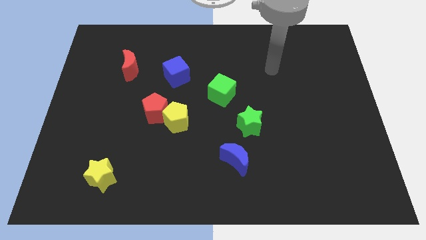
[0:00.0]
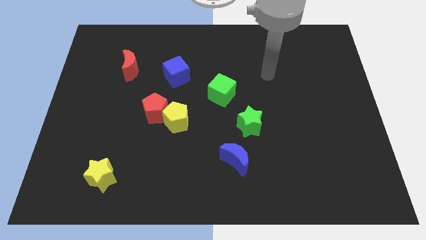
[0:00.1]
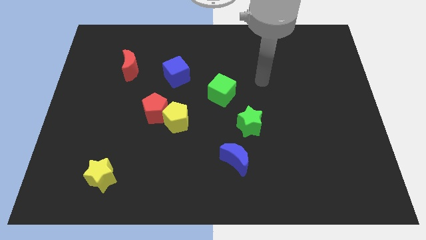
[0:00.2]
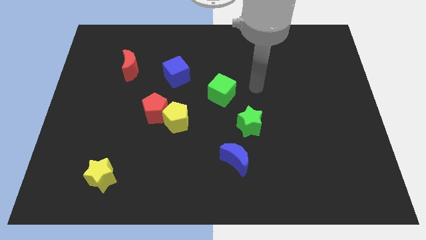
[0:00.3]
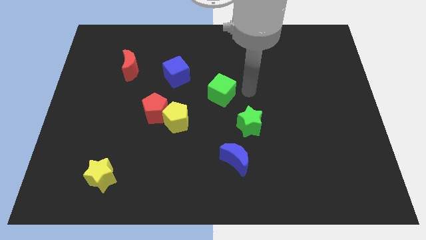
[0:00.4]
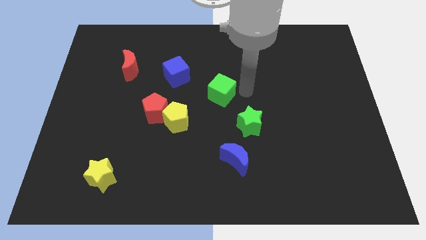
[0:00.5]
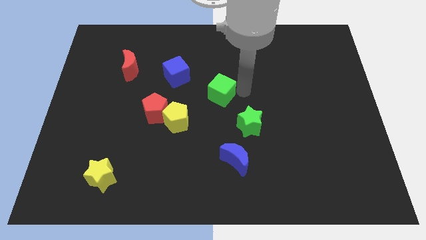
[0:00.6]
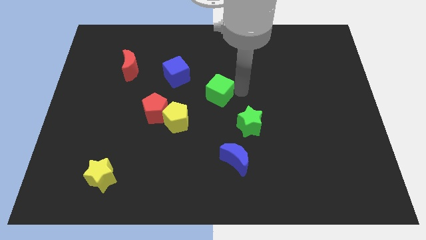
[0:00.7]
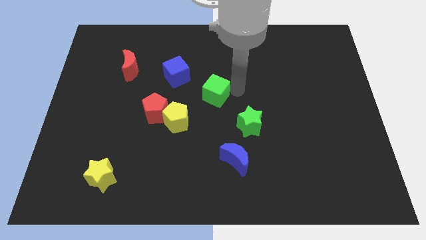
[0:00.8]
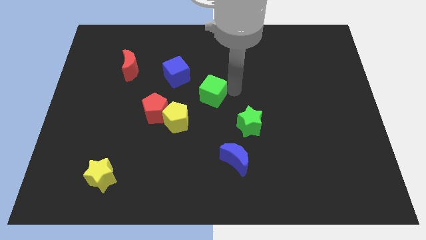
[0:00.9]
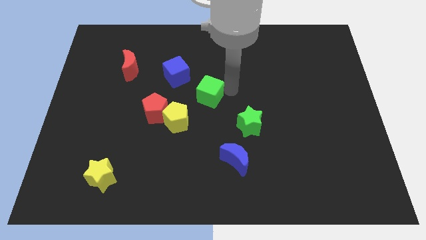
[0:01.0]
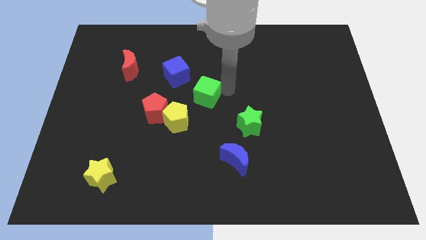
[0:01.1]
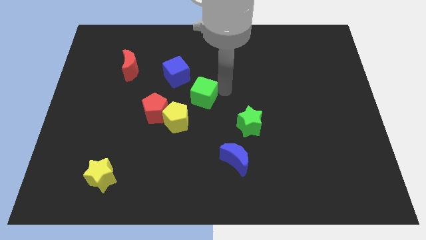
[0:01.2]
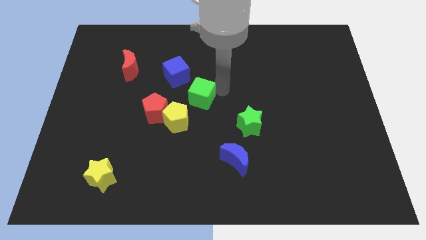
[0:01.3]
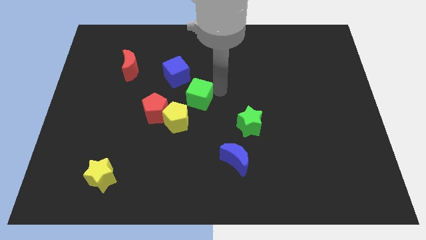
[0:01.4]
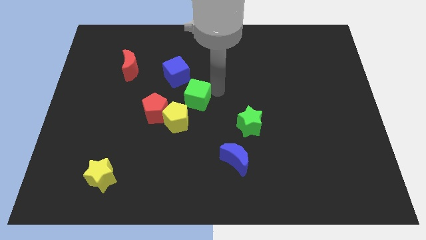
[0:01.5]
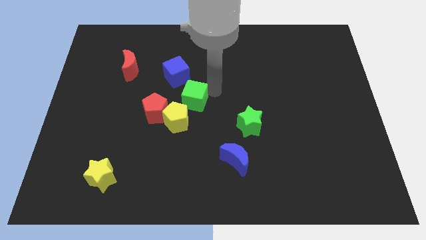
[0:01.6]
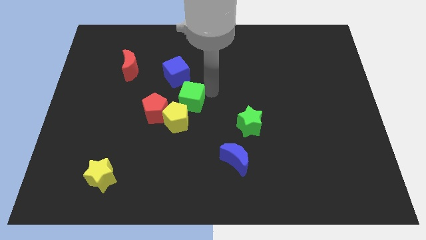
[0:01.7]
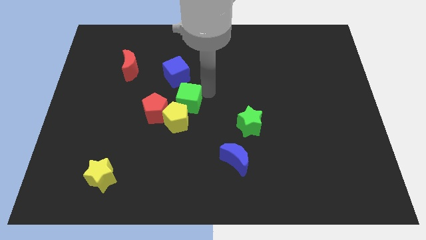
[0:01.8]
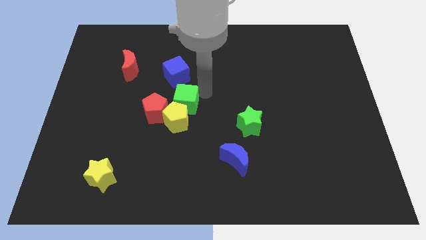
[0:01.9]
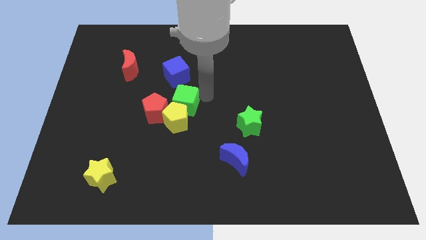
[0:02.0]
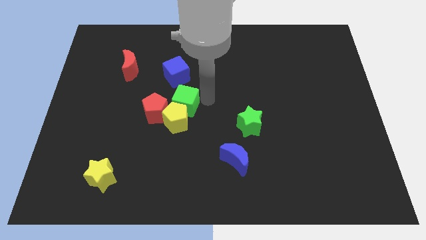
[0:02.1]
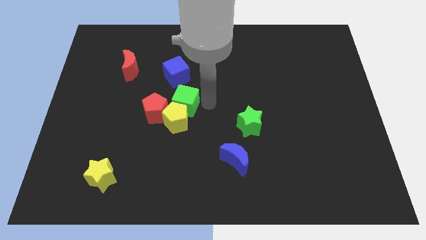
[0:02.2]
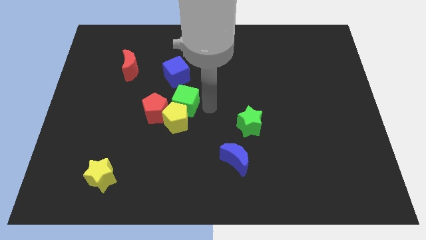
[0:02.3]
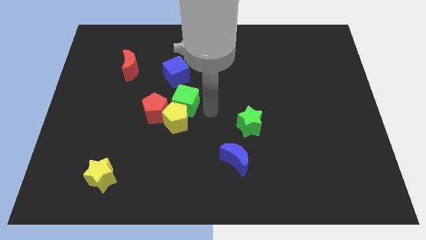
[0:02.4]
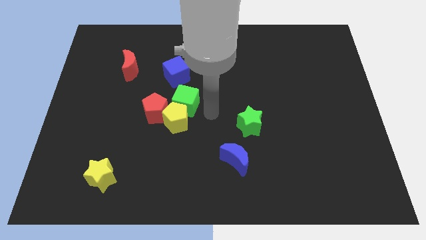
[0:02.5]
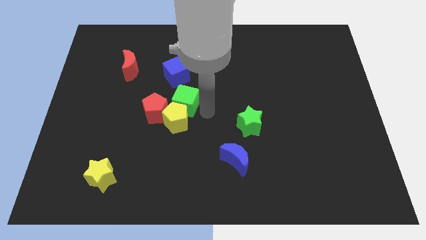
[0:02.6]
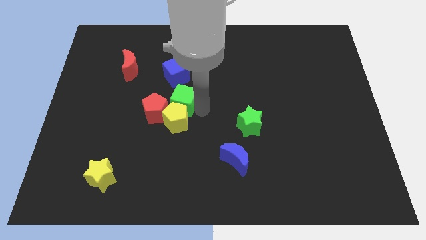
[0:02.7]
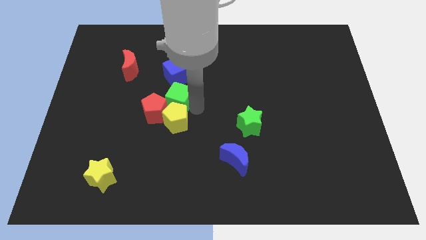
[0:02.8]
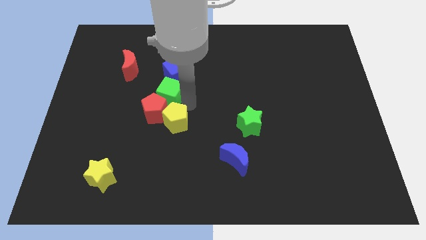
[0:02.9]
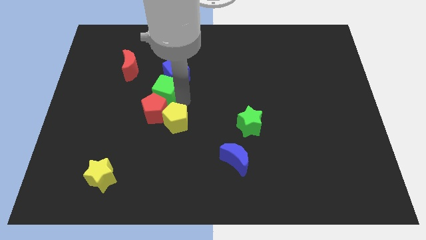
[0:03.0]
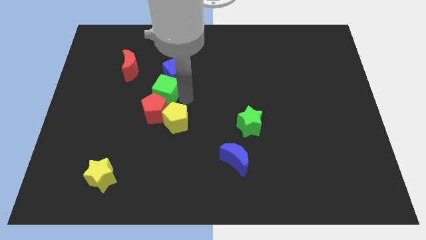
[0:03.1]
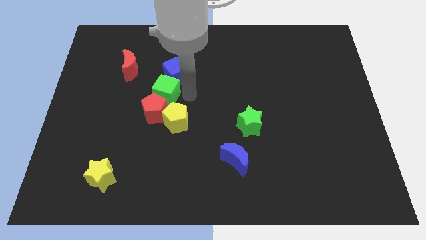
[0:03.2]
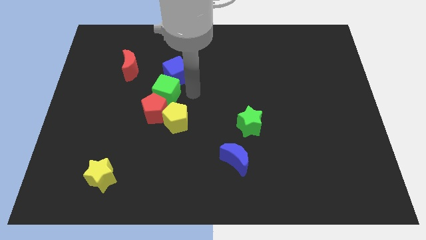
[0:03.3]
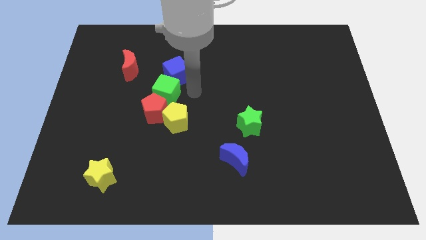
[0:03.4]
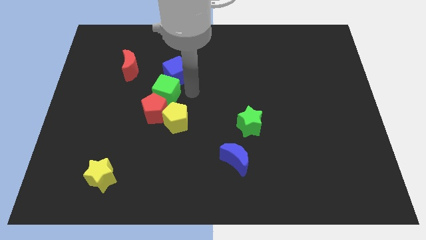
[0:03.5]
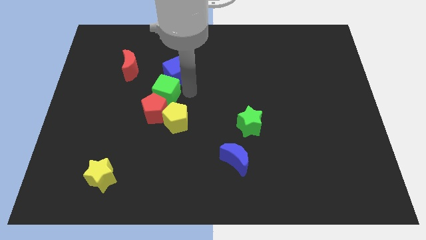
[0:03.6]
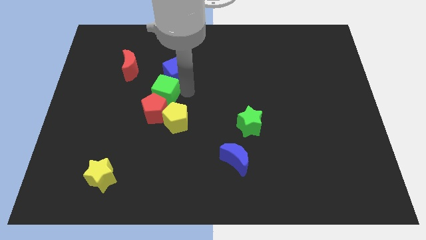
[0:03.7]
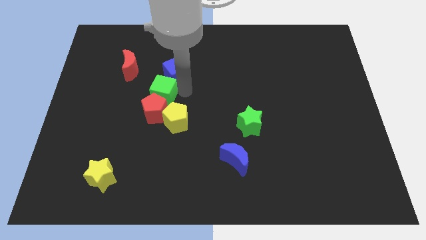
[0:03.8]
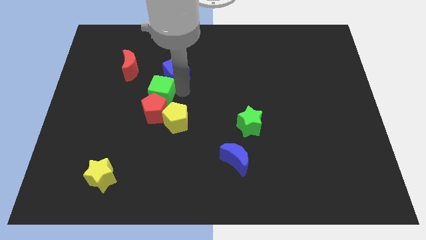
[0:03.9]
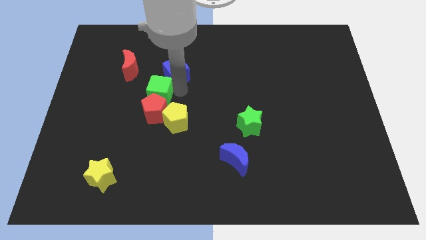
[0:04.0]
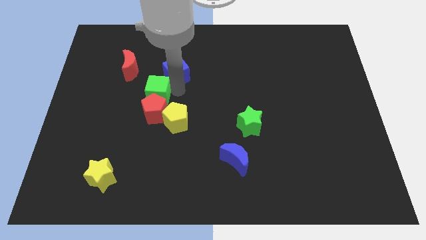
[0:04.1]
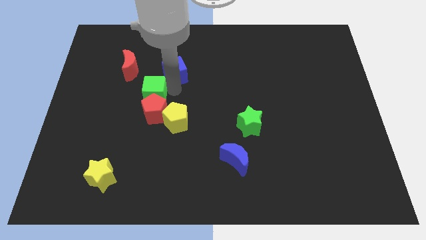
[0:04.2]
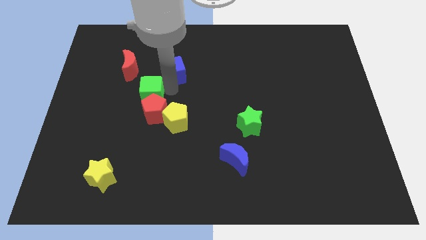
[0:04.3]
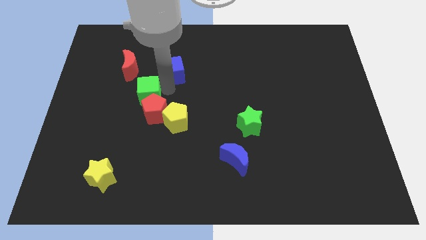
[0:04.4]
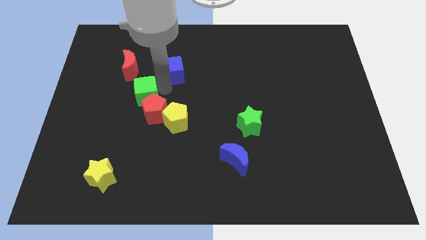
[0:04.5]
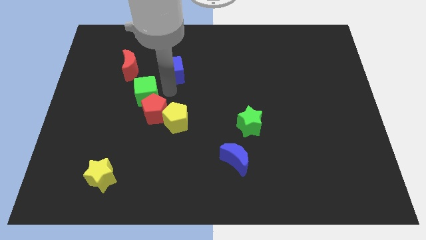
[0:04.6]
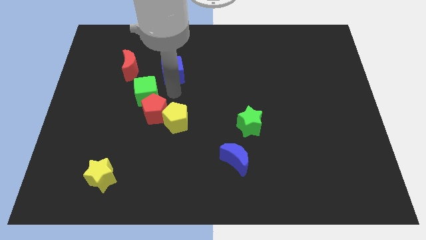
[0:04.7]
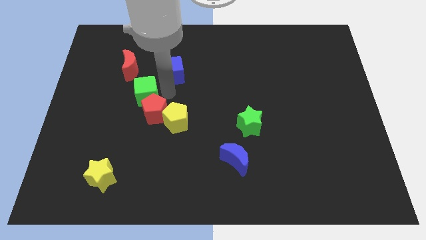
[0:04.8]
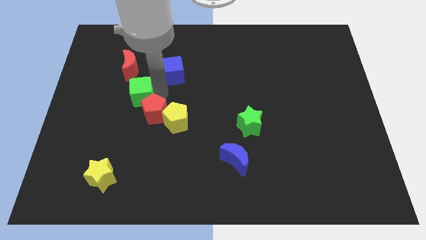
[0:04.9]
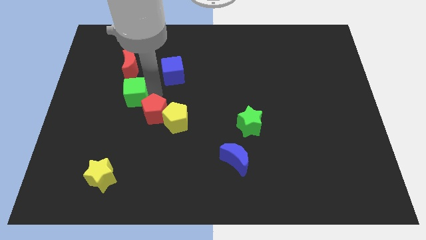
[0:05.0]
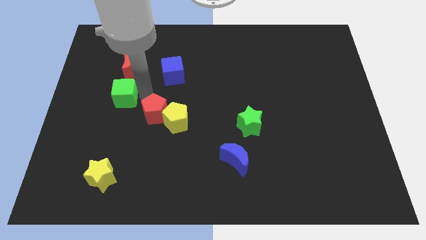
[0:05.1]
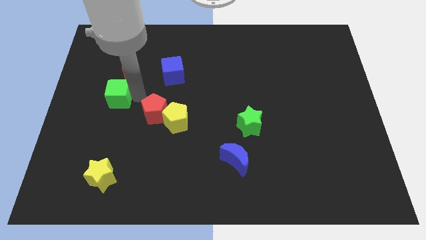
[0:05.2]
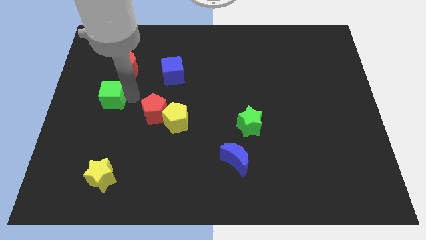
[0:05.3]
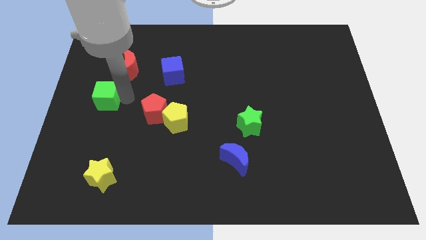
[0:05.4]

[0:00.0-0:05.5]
put the green cube to the left side of the board
